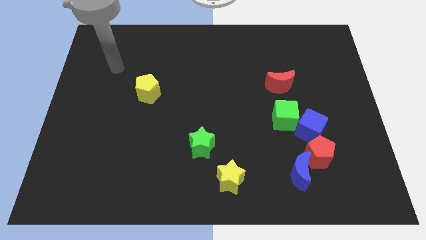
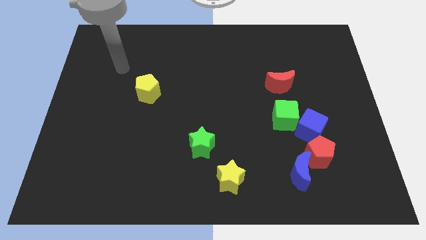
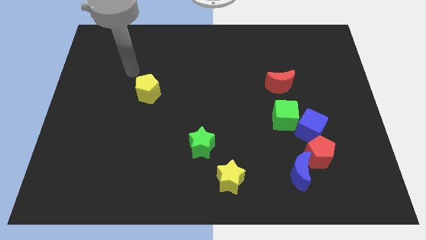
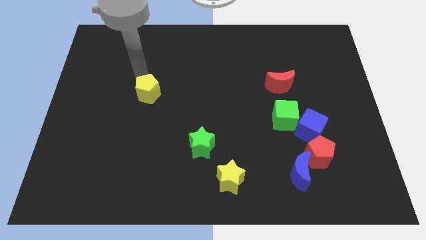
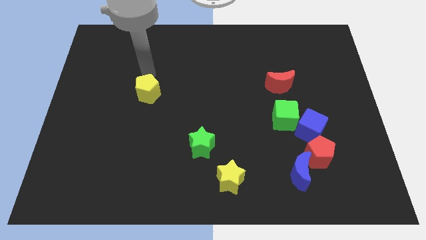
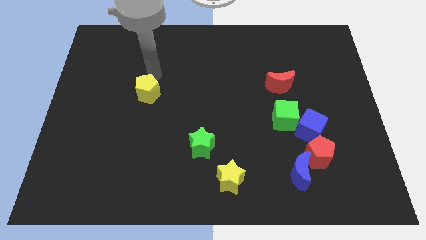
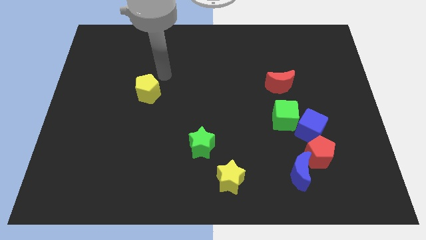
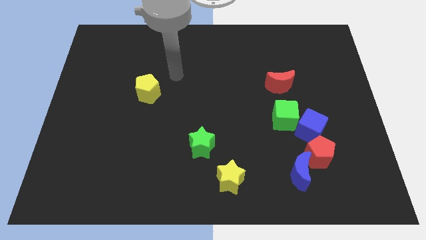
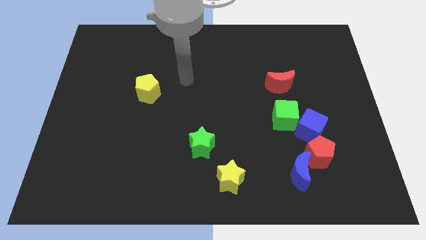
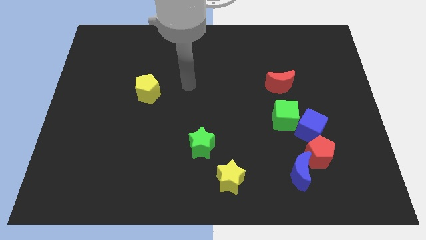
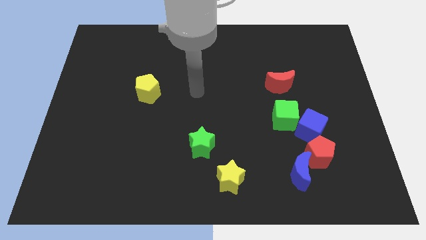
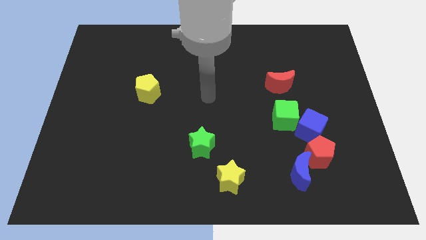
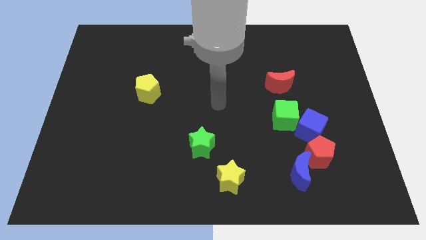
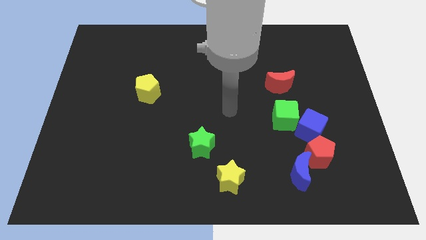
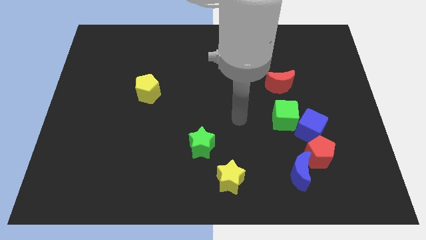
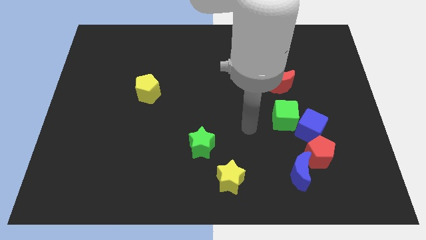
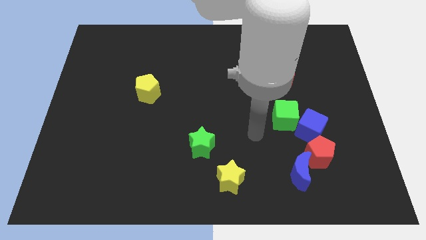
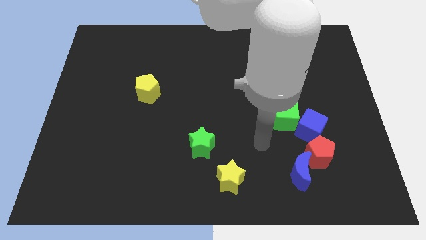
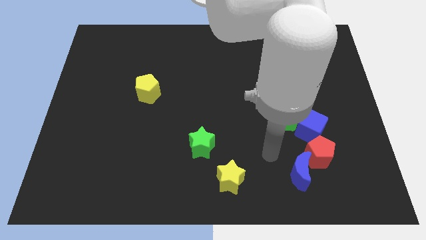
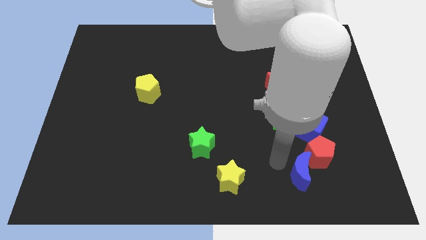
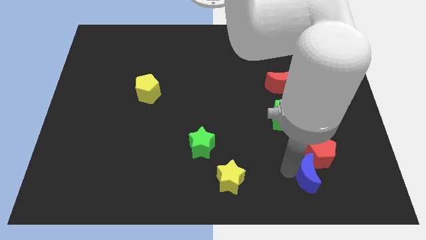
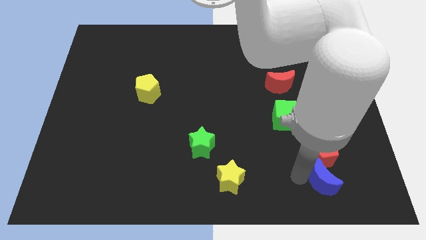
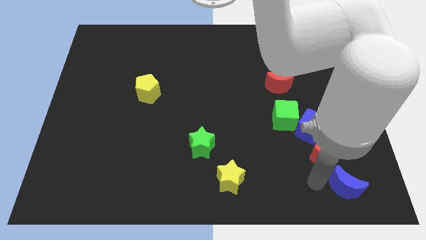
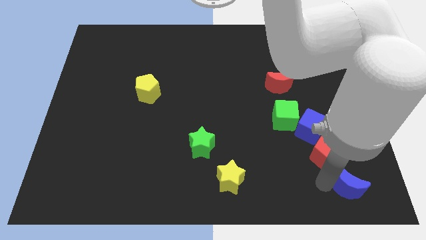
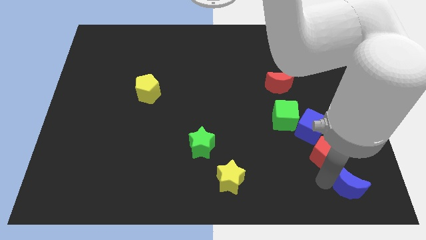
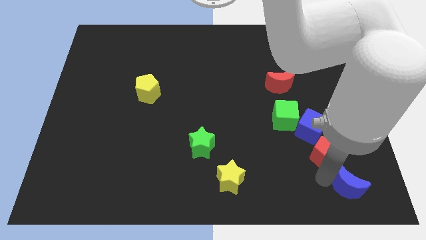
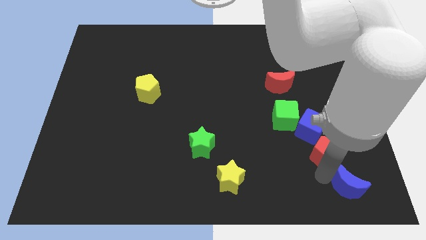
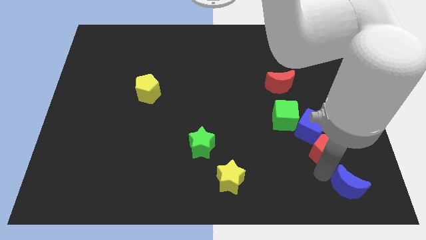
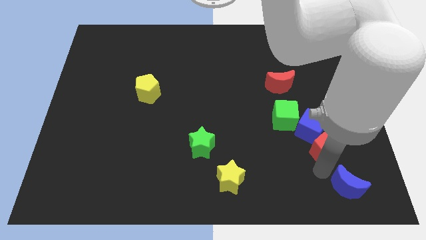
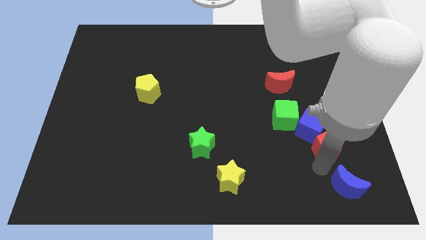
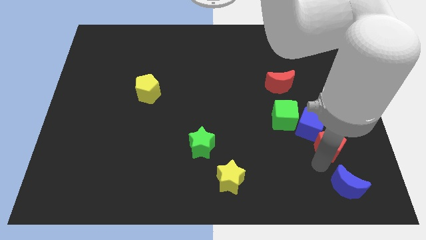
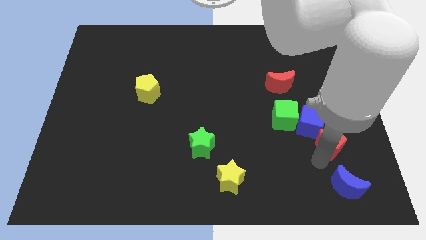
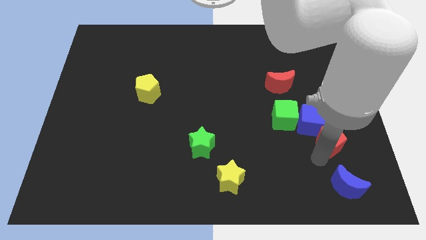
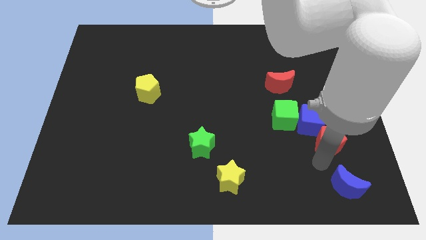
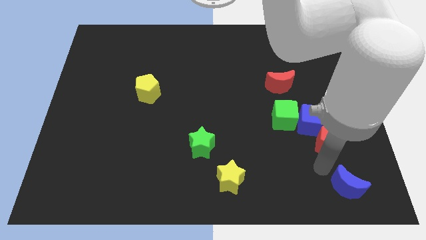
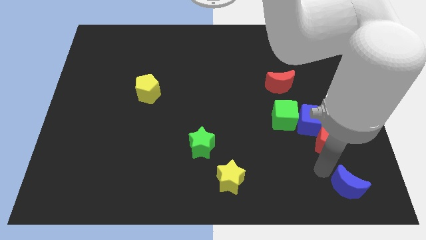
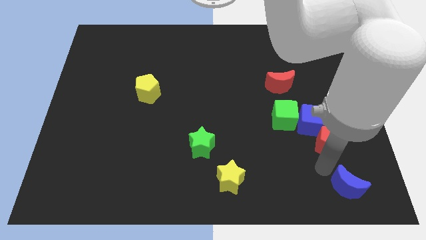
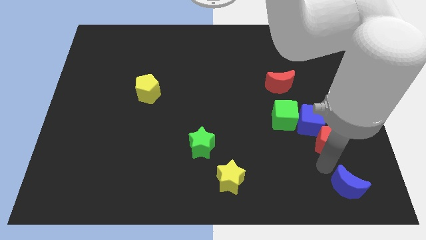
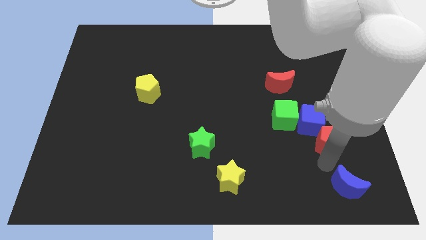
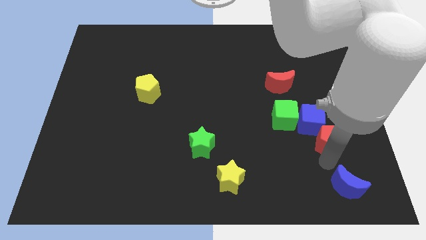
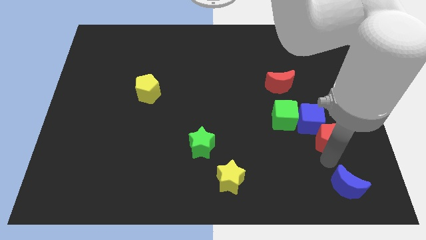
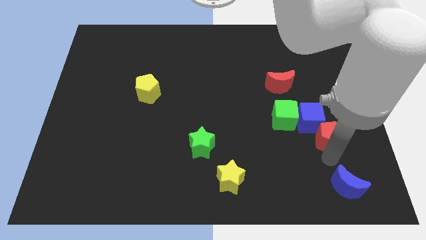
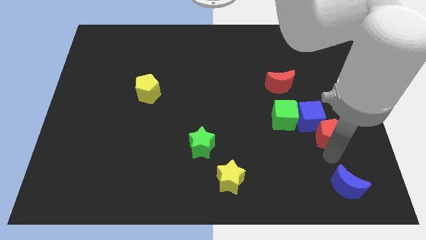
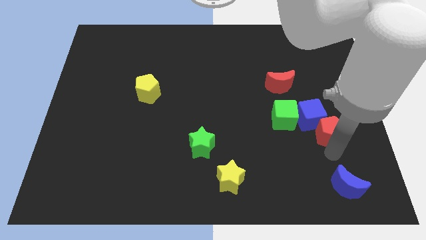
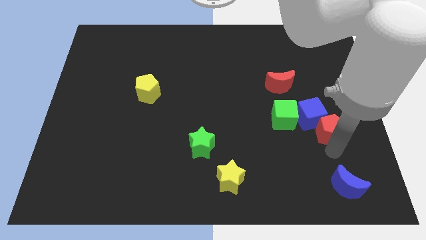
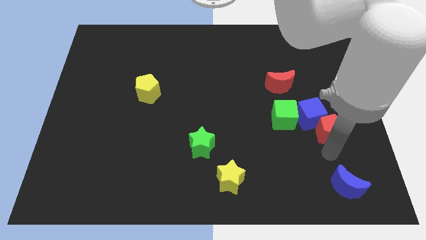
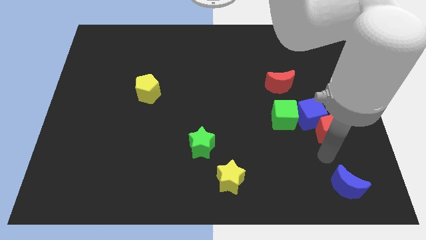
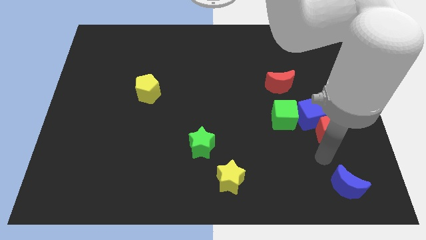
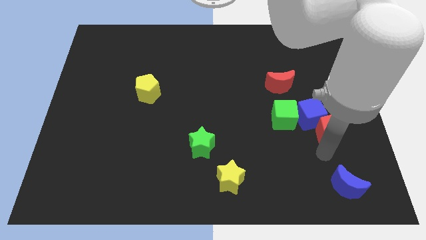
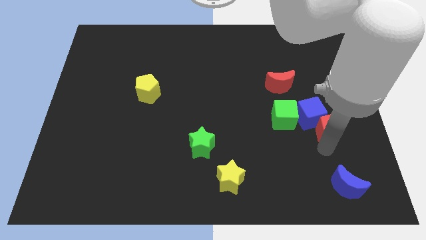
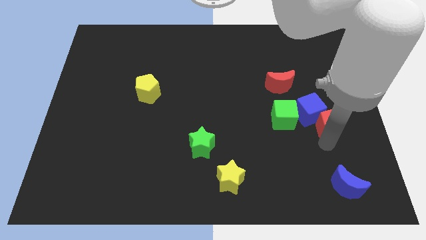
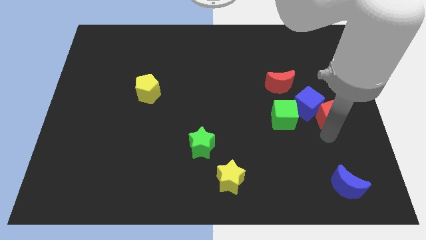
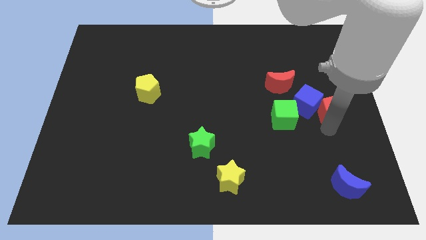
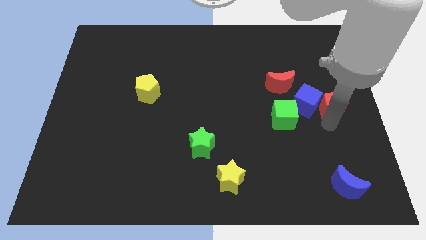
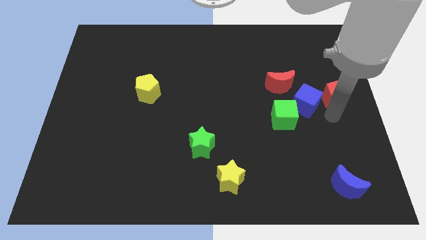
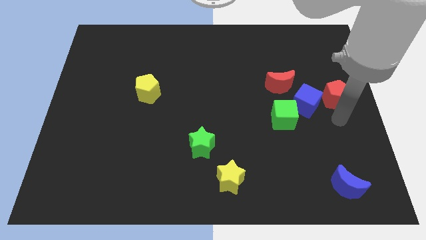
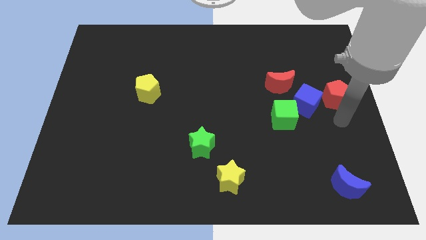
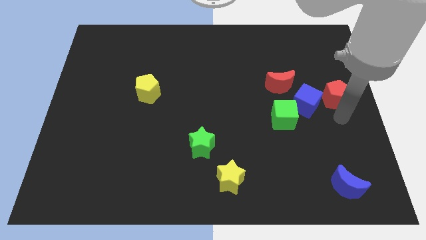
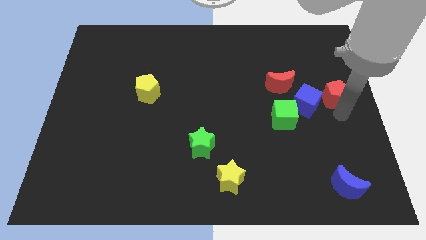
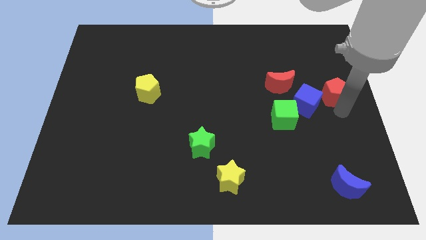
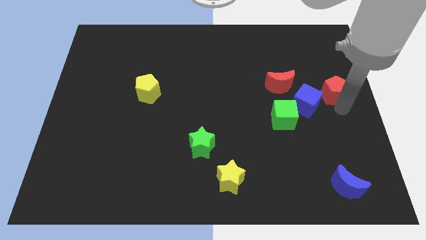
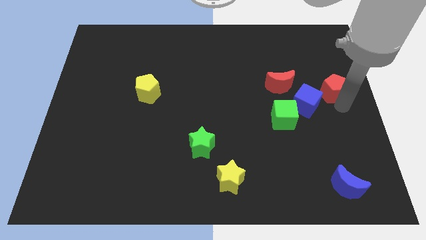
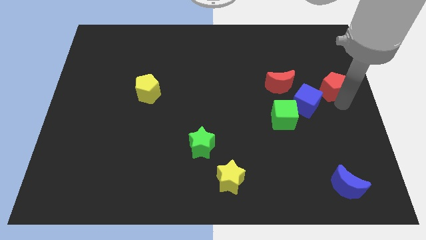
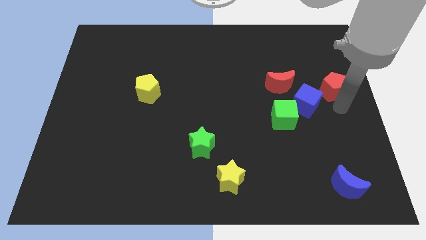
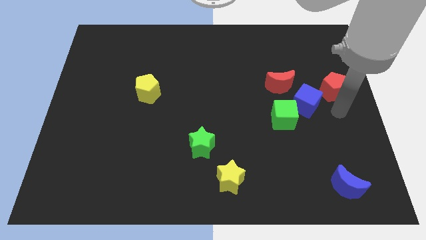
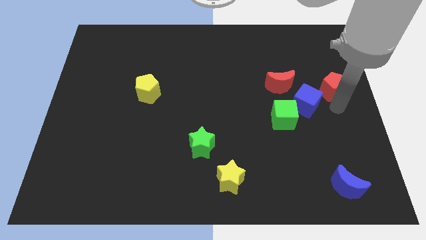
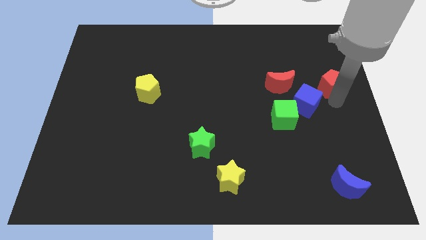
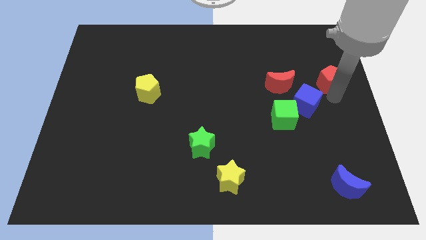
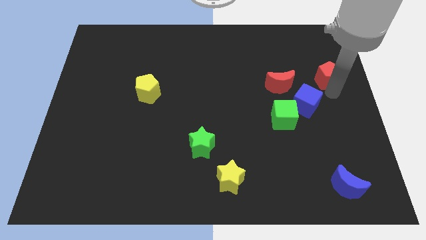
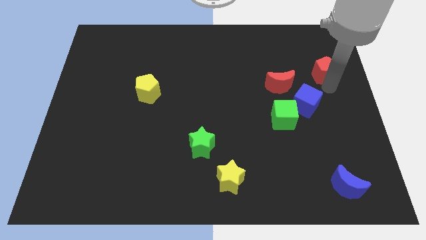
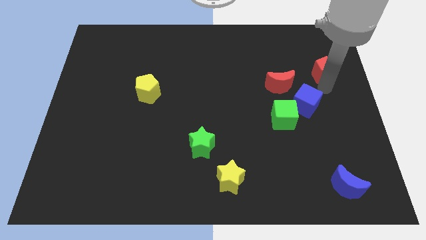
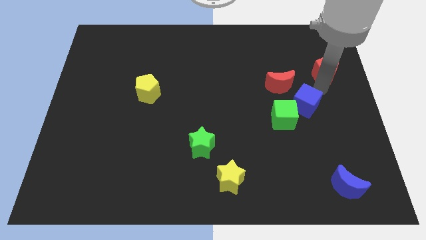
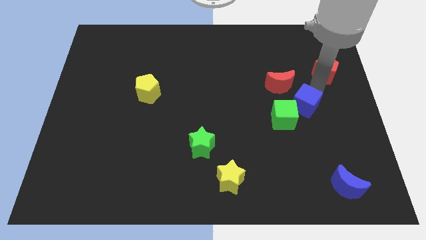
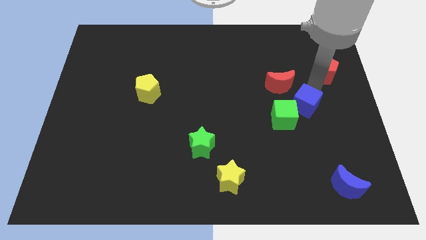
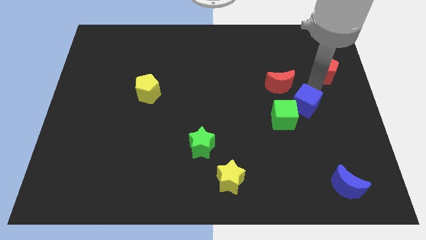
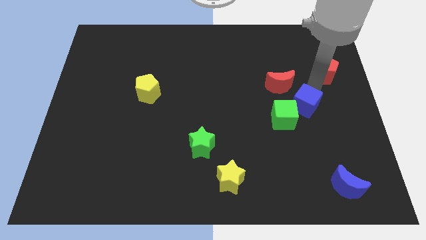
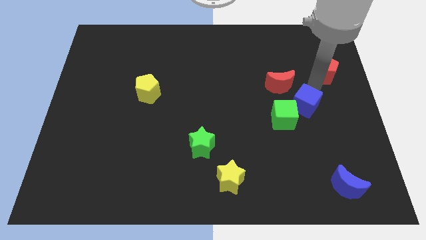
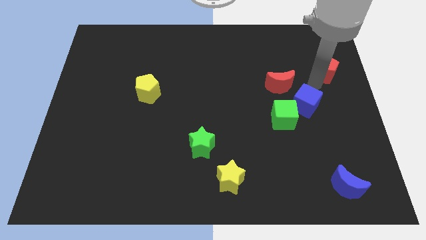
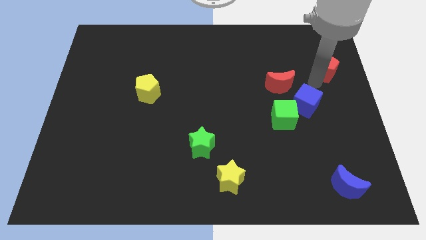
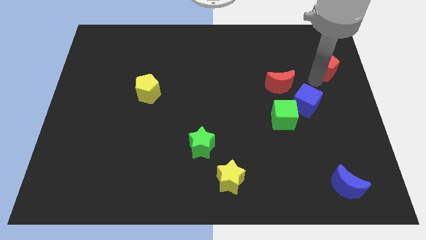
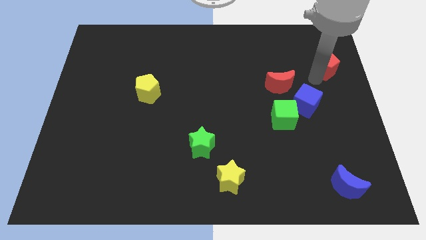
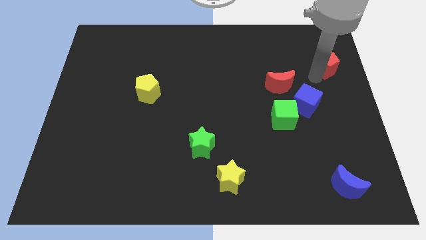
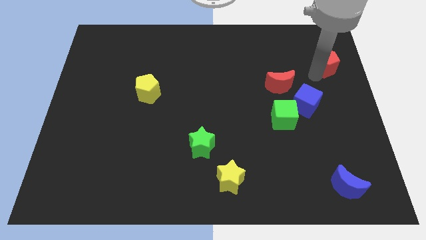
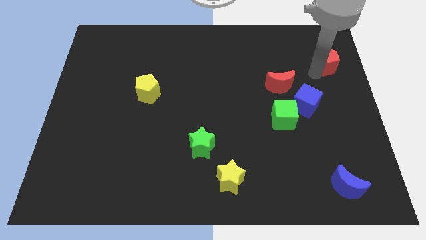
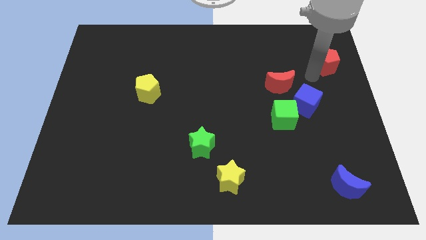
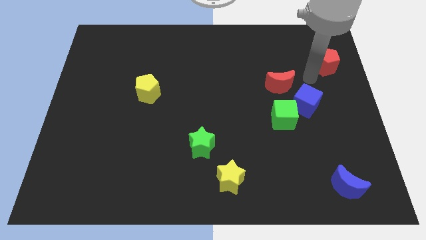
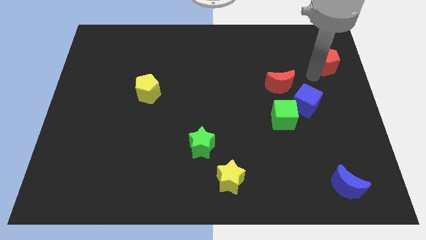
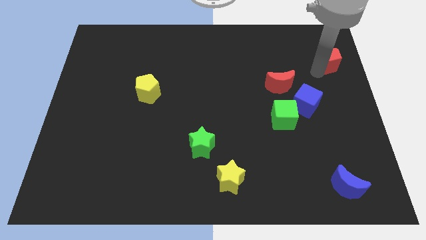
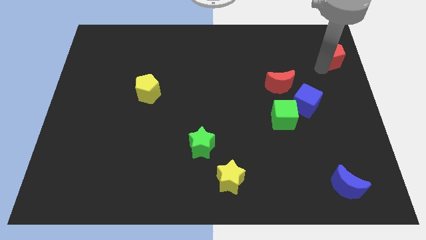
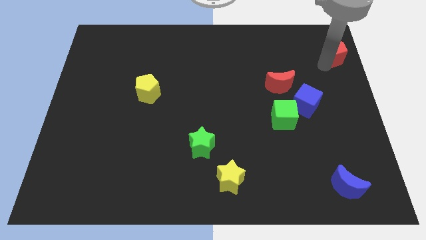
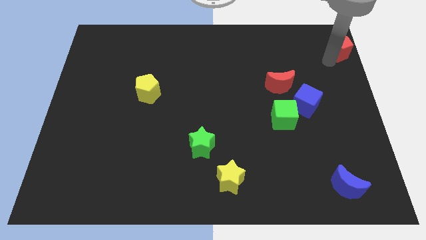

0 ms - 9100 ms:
slide the red pentagon to the upper right corner
